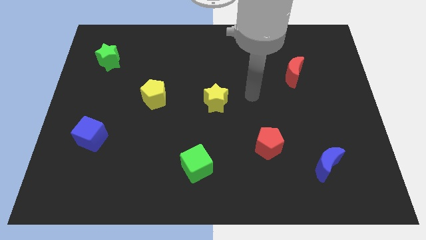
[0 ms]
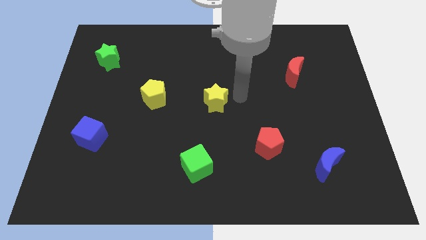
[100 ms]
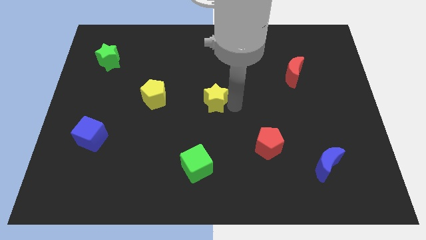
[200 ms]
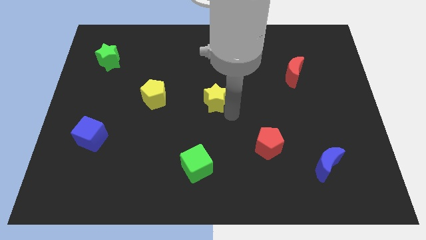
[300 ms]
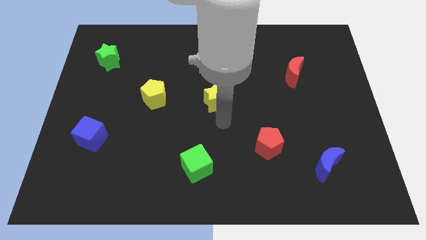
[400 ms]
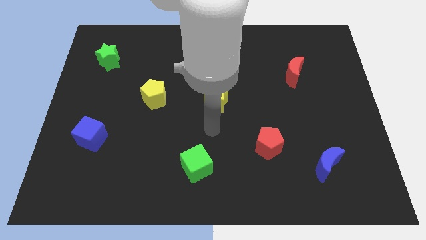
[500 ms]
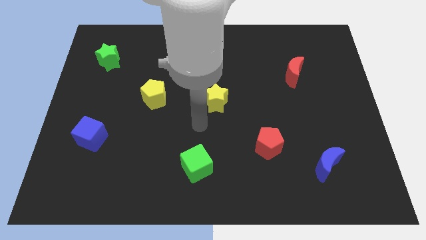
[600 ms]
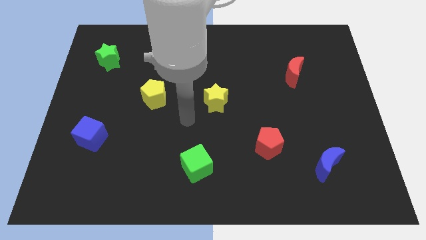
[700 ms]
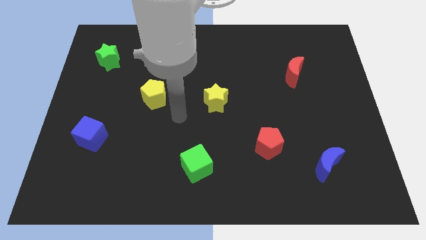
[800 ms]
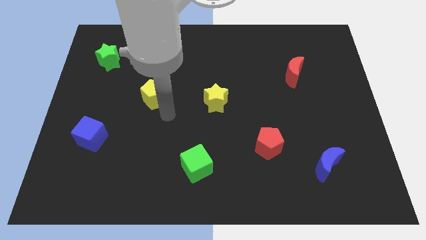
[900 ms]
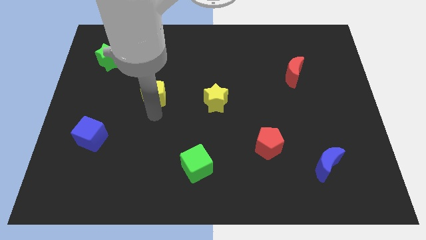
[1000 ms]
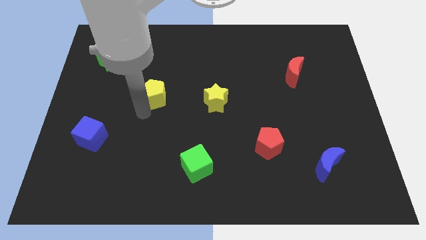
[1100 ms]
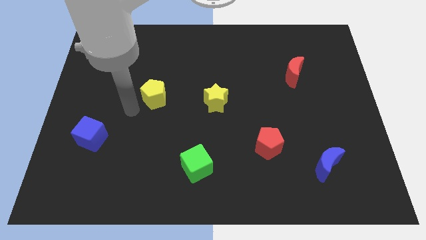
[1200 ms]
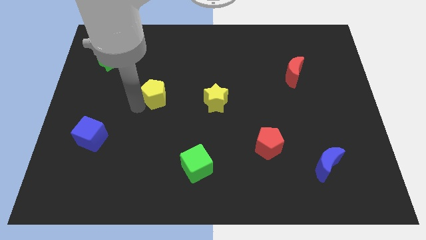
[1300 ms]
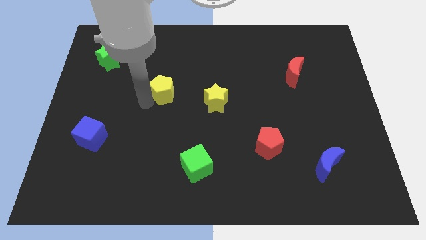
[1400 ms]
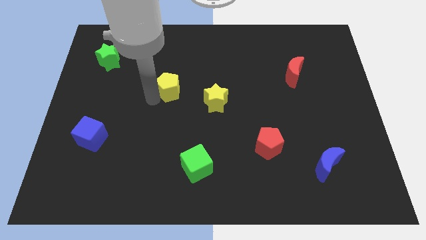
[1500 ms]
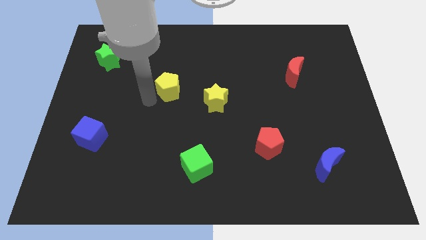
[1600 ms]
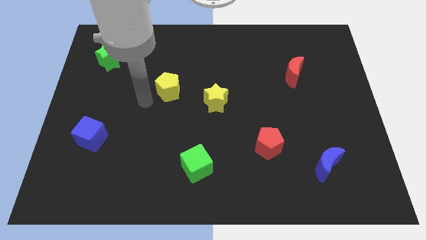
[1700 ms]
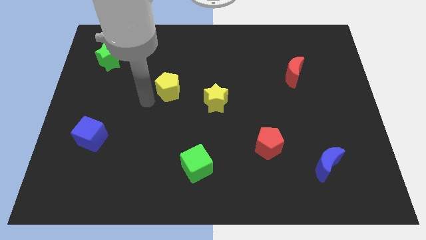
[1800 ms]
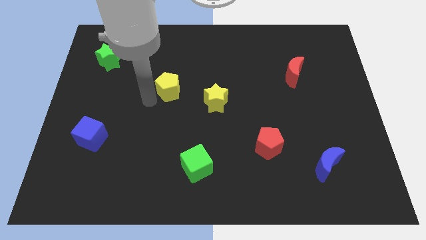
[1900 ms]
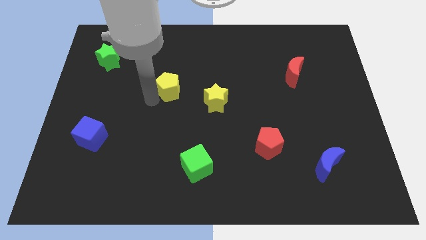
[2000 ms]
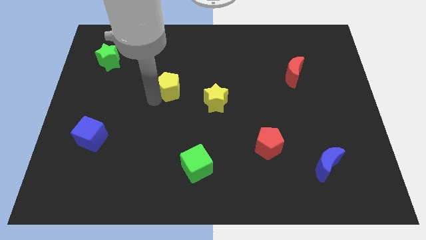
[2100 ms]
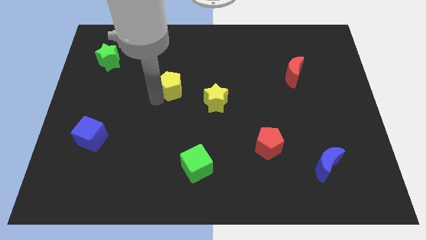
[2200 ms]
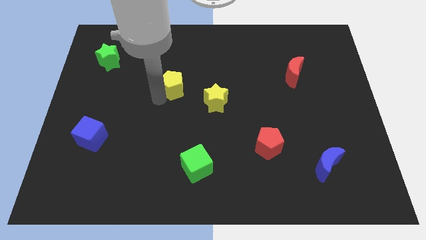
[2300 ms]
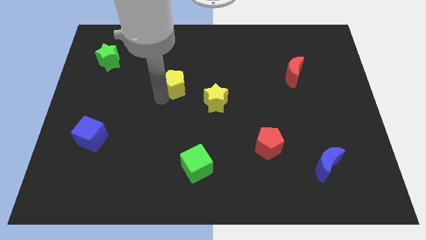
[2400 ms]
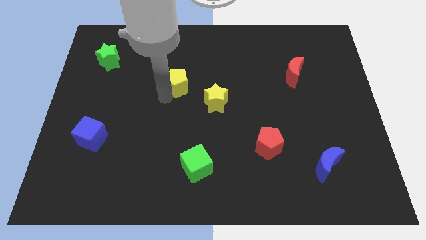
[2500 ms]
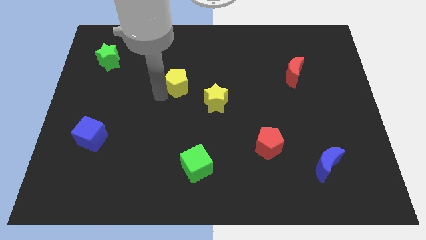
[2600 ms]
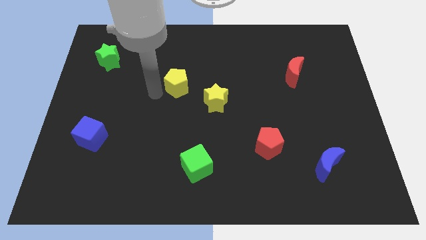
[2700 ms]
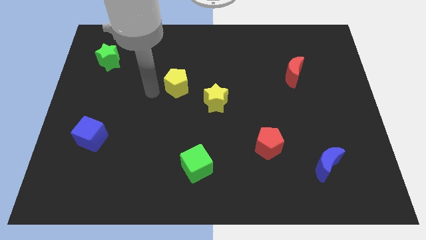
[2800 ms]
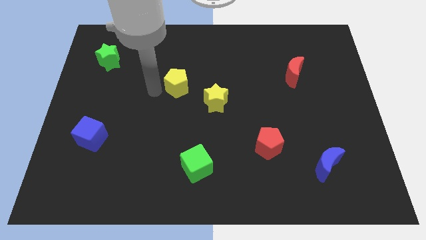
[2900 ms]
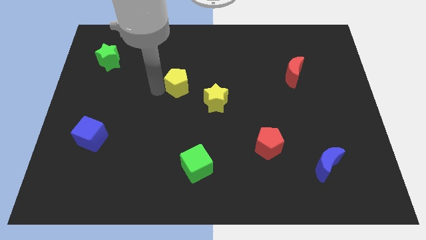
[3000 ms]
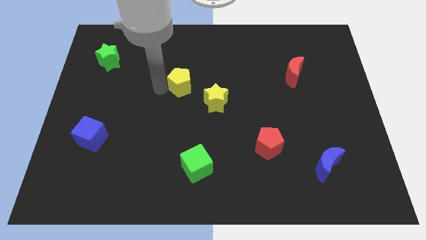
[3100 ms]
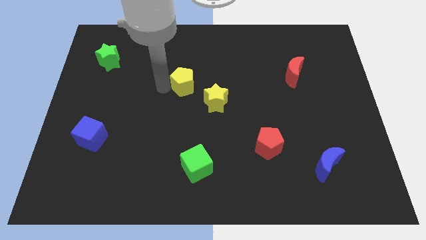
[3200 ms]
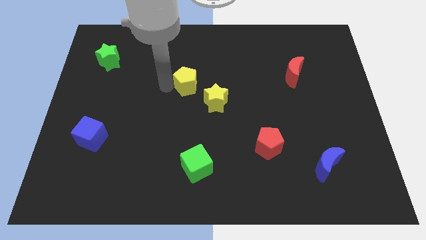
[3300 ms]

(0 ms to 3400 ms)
move the yellow pentagon right a little bit

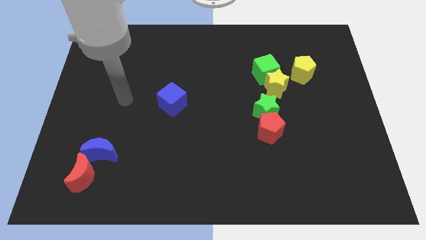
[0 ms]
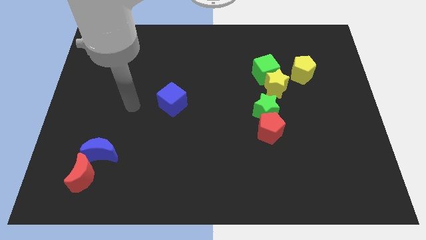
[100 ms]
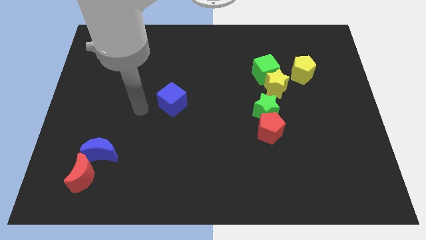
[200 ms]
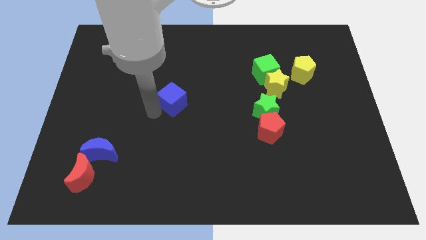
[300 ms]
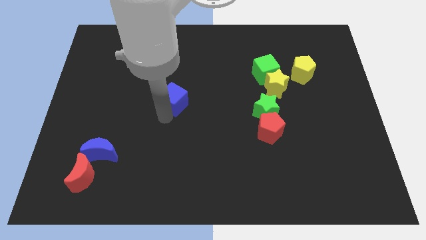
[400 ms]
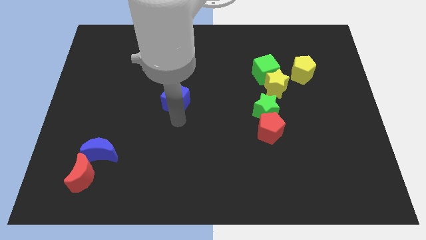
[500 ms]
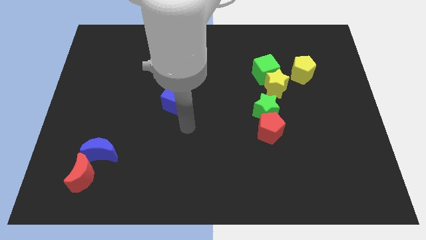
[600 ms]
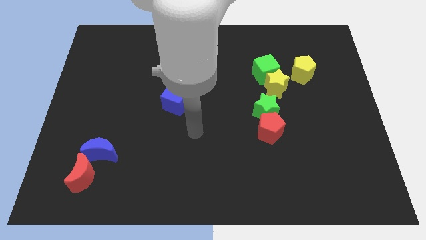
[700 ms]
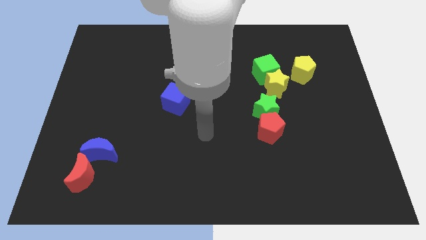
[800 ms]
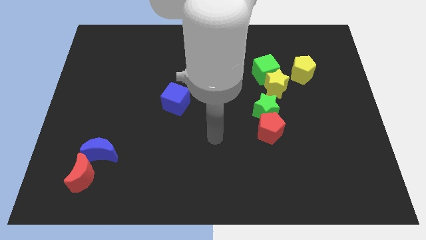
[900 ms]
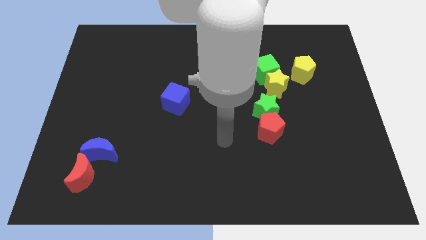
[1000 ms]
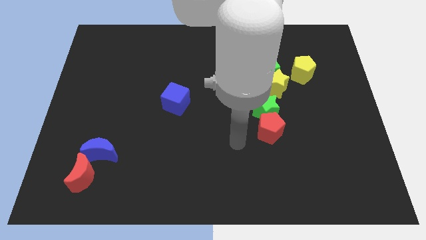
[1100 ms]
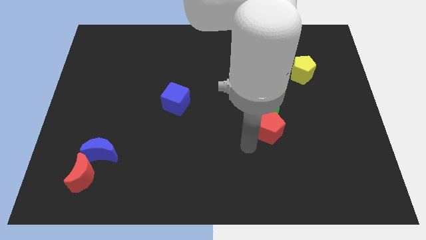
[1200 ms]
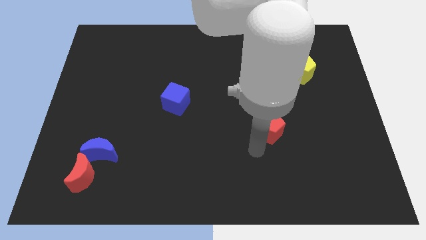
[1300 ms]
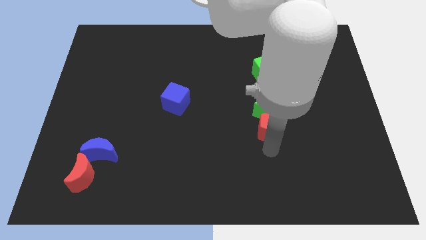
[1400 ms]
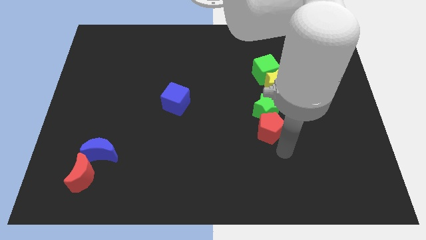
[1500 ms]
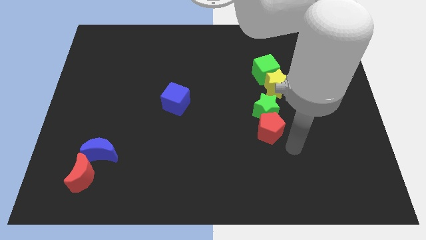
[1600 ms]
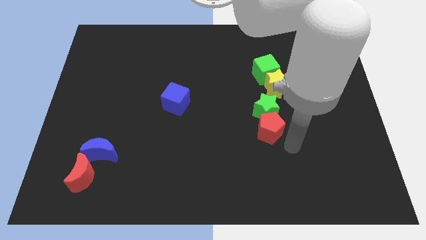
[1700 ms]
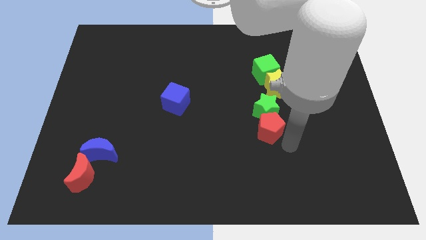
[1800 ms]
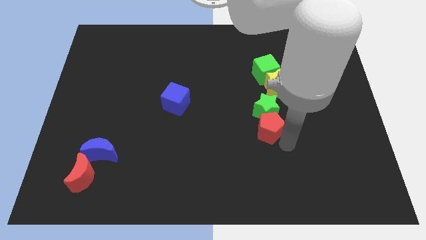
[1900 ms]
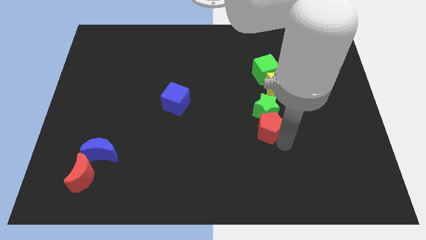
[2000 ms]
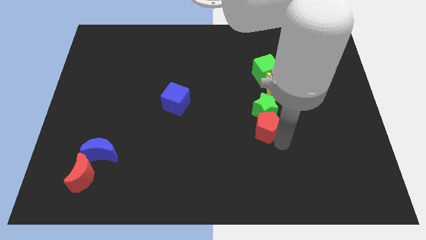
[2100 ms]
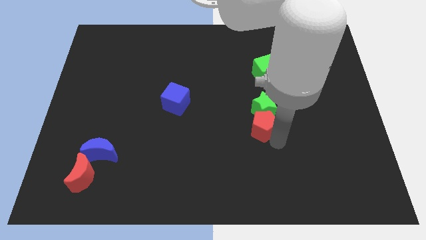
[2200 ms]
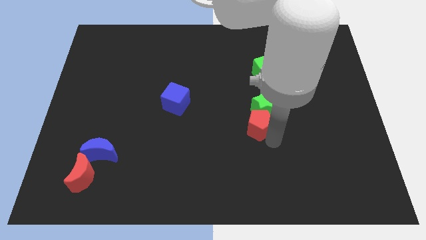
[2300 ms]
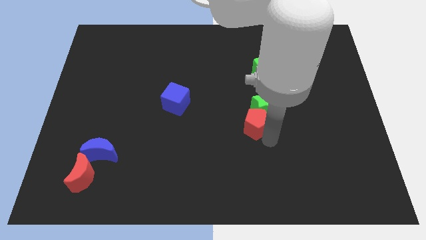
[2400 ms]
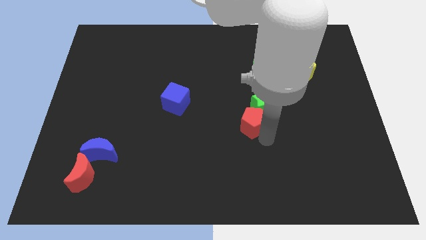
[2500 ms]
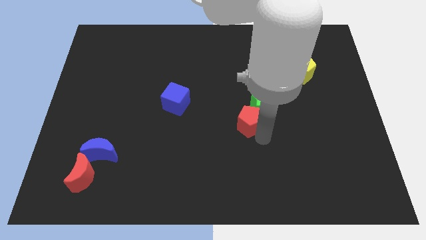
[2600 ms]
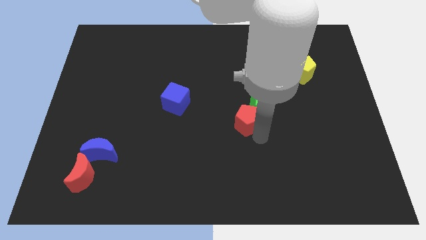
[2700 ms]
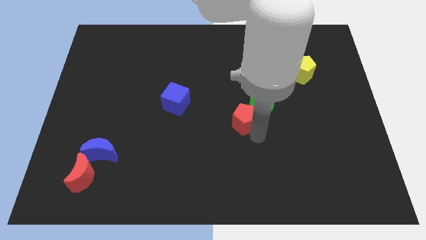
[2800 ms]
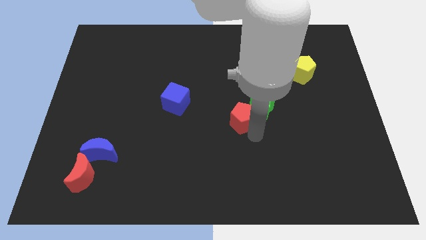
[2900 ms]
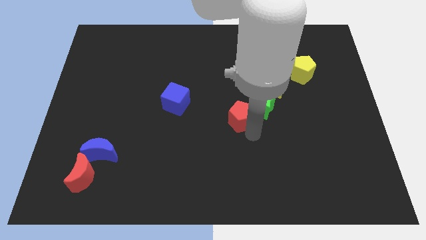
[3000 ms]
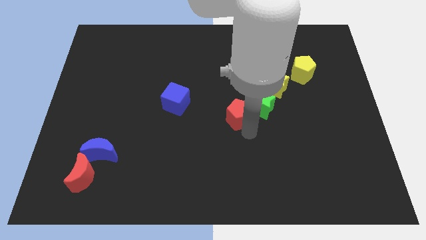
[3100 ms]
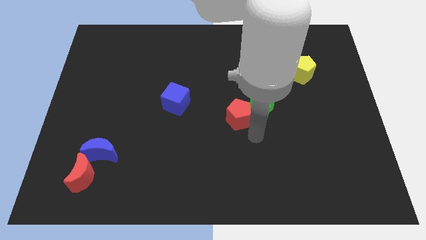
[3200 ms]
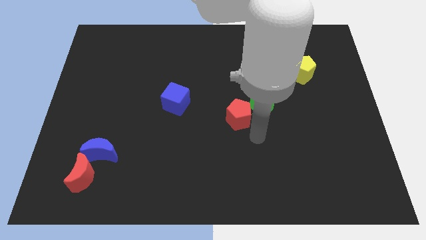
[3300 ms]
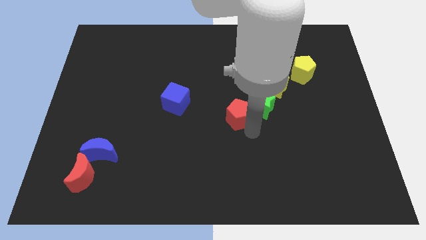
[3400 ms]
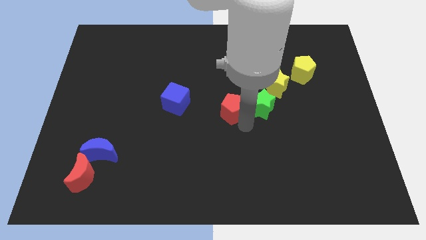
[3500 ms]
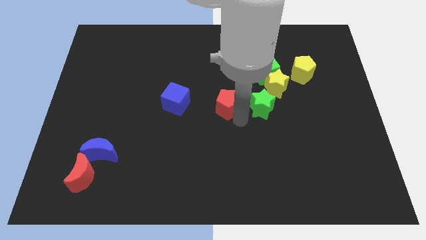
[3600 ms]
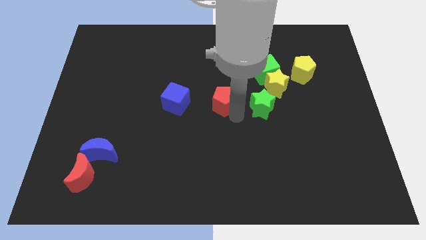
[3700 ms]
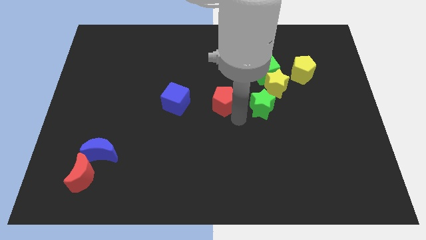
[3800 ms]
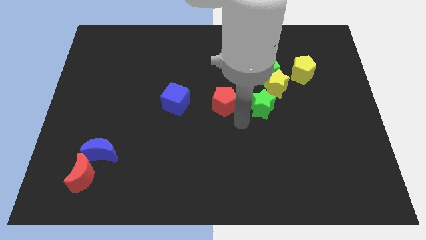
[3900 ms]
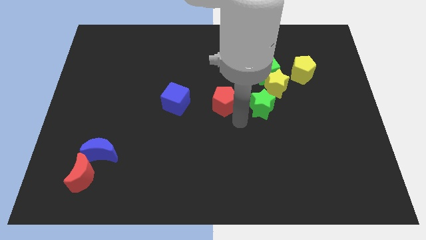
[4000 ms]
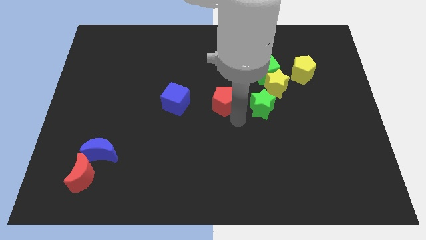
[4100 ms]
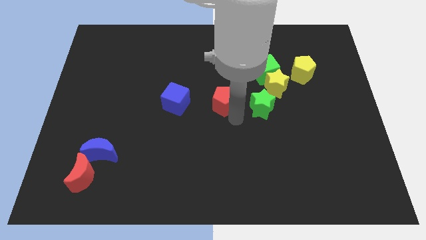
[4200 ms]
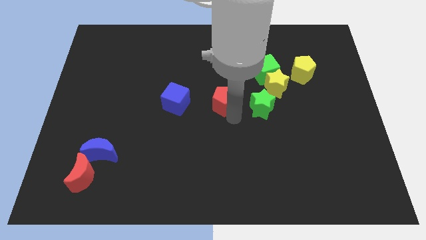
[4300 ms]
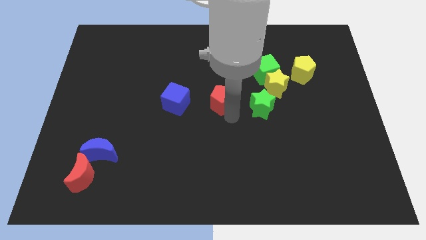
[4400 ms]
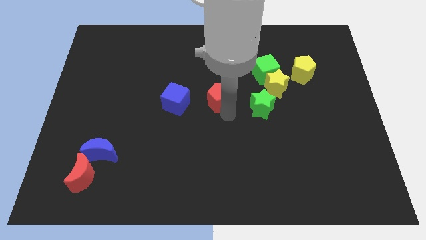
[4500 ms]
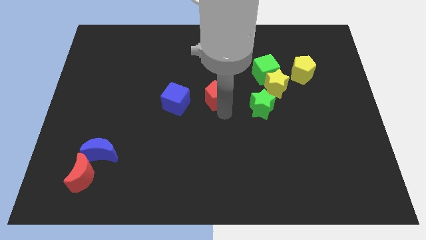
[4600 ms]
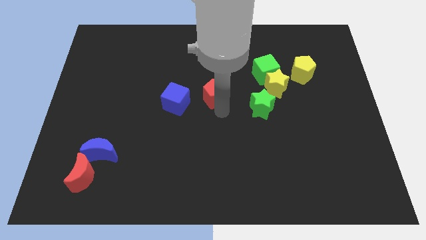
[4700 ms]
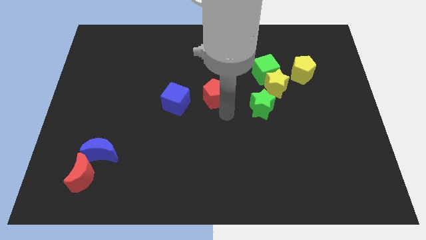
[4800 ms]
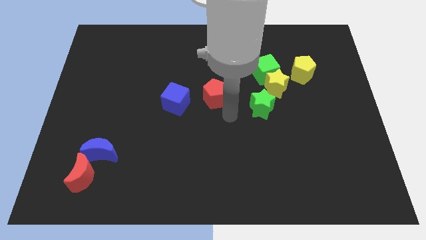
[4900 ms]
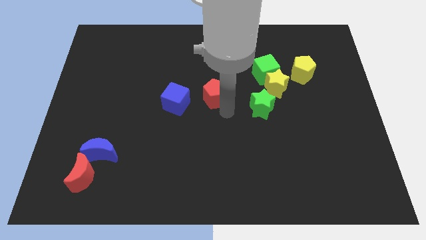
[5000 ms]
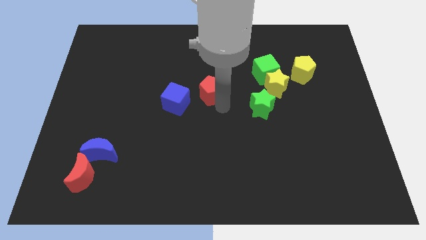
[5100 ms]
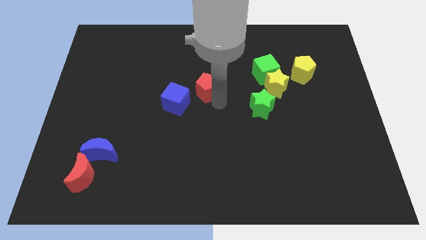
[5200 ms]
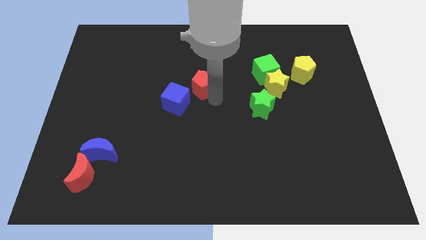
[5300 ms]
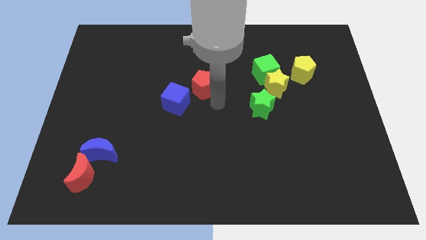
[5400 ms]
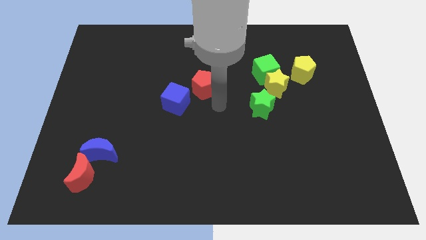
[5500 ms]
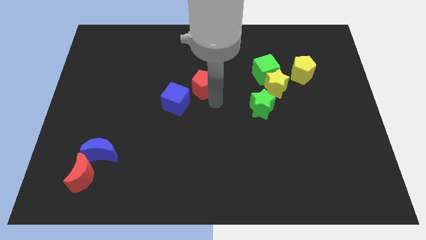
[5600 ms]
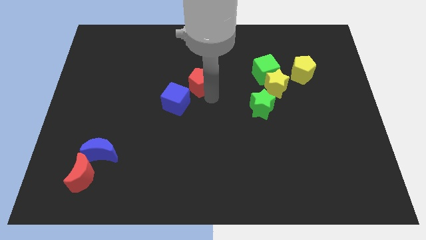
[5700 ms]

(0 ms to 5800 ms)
push the red pentagon upwards and to the left
